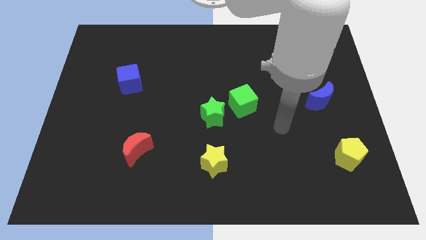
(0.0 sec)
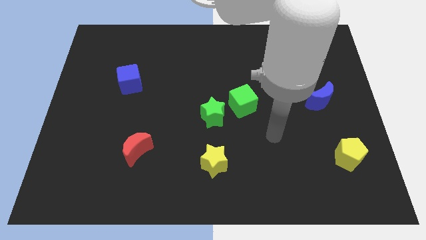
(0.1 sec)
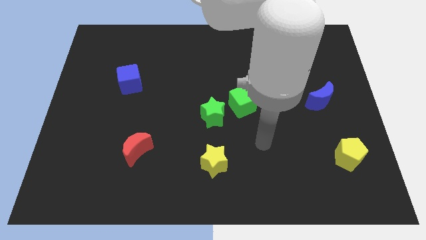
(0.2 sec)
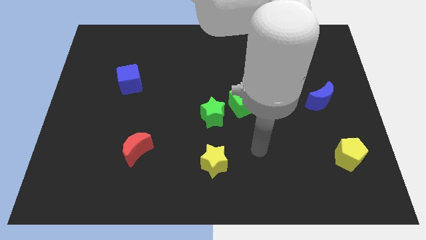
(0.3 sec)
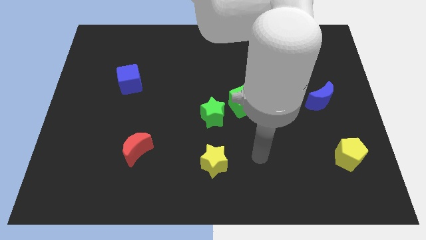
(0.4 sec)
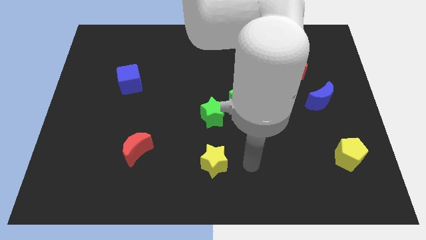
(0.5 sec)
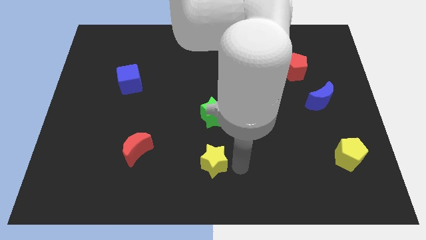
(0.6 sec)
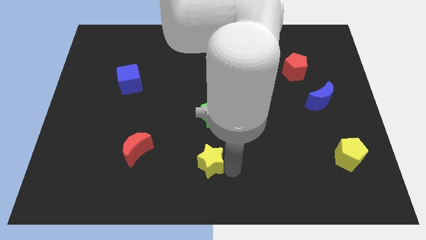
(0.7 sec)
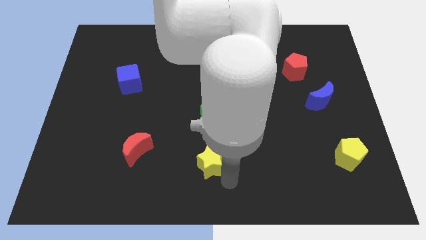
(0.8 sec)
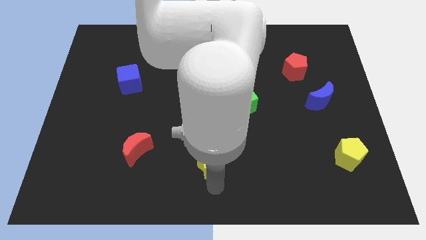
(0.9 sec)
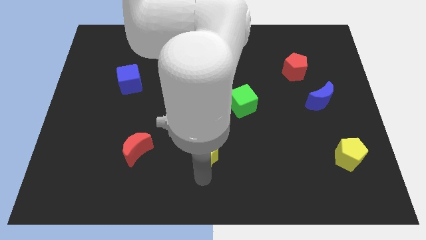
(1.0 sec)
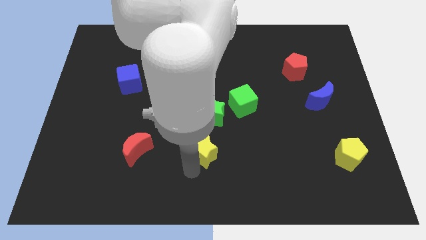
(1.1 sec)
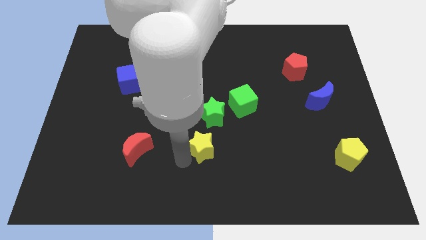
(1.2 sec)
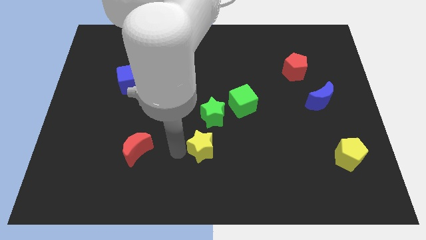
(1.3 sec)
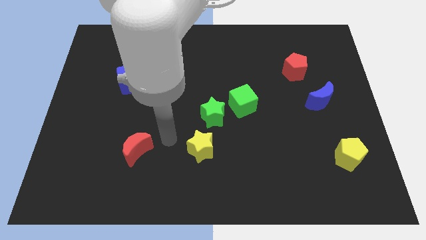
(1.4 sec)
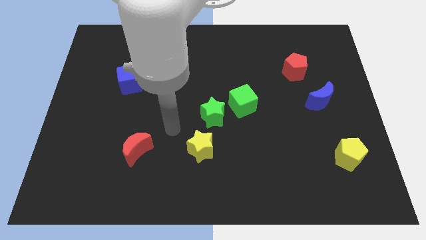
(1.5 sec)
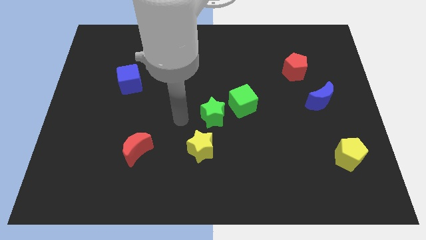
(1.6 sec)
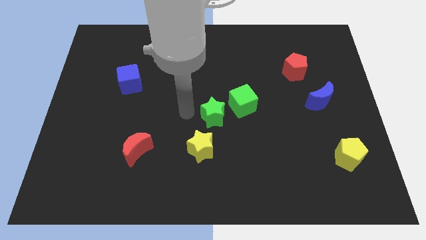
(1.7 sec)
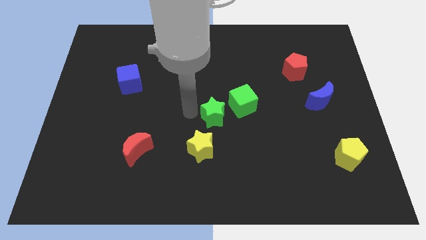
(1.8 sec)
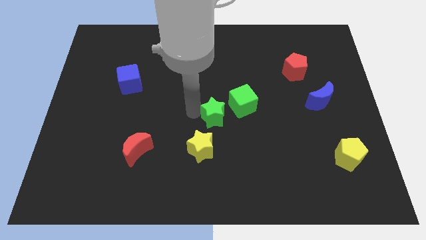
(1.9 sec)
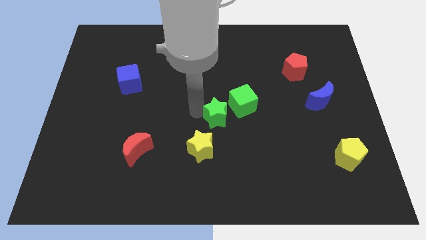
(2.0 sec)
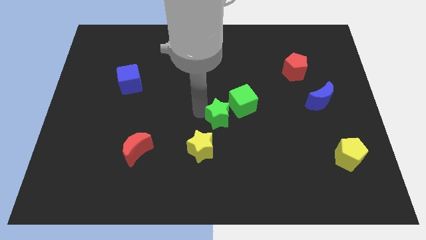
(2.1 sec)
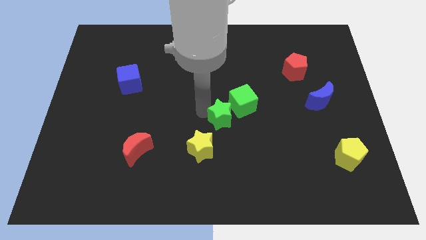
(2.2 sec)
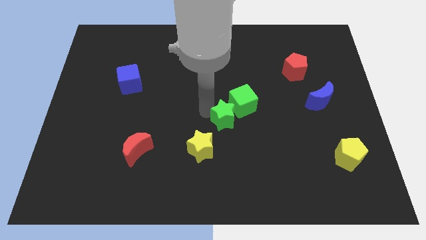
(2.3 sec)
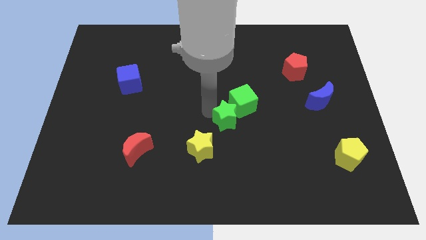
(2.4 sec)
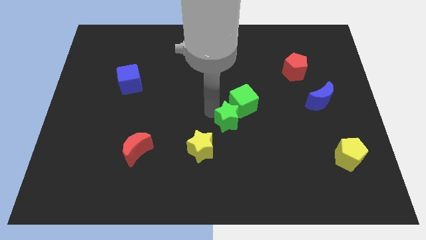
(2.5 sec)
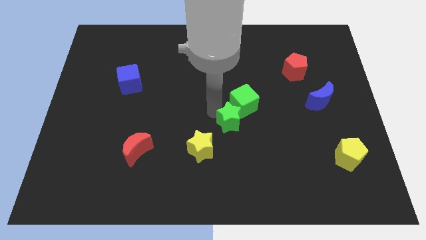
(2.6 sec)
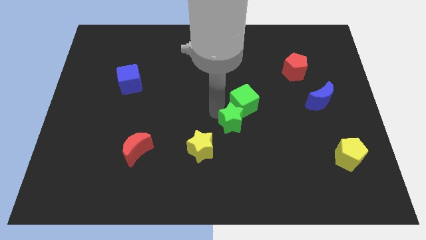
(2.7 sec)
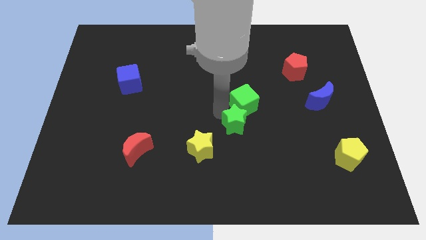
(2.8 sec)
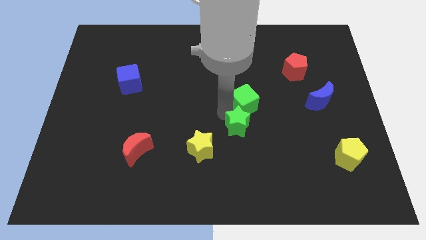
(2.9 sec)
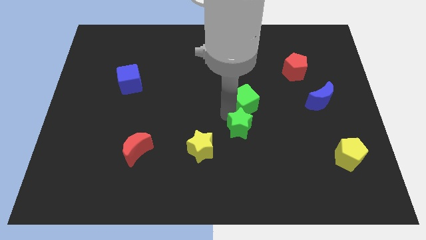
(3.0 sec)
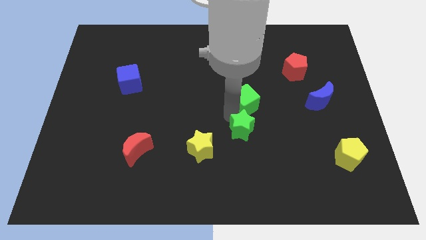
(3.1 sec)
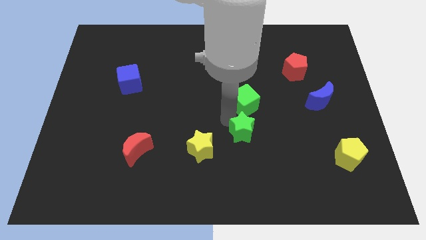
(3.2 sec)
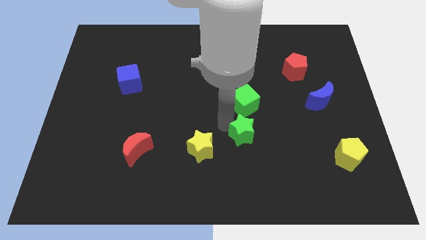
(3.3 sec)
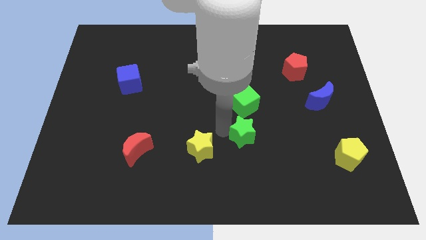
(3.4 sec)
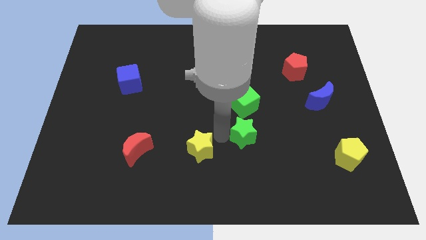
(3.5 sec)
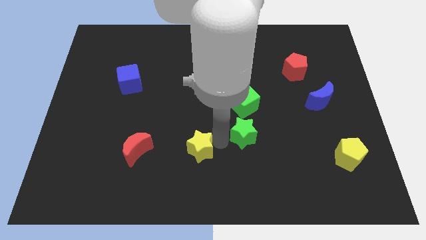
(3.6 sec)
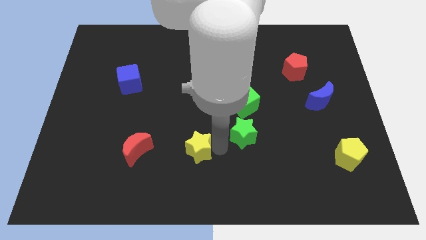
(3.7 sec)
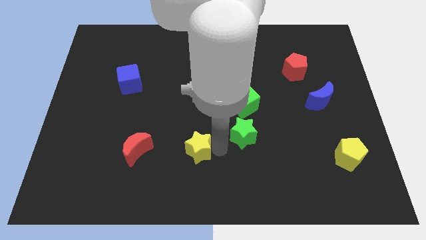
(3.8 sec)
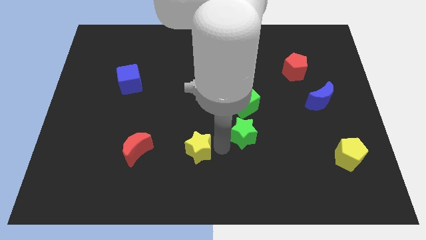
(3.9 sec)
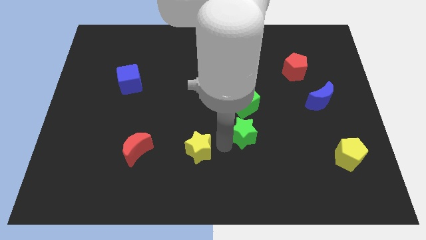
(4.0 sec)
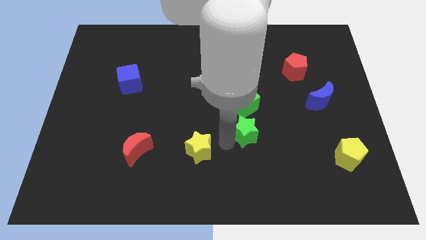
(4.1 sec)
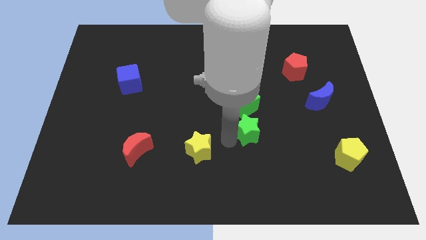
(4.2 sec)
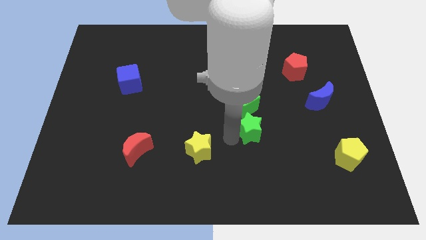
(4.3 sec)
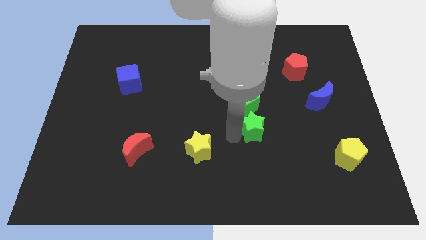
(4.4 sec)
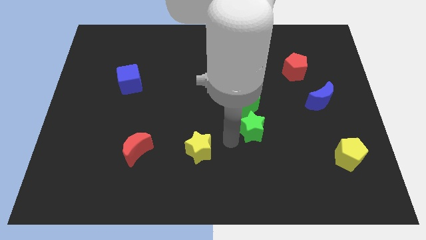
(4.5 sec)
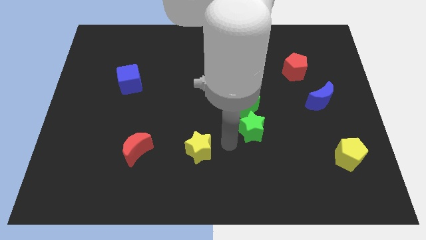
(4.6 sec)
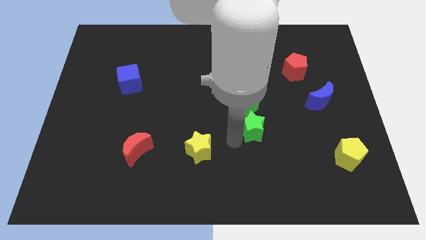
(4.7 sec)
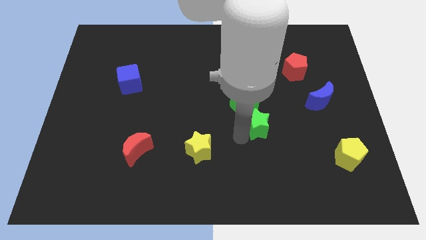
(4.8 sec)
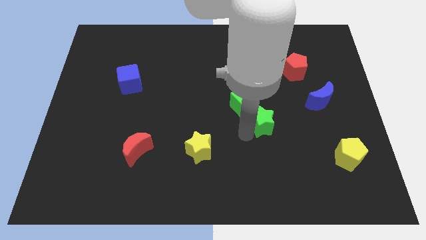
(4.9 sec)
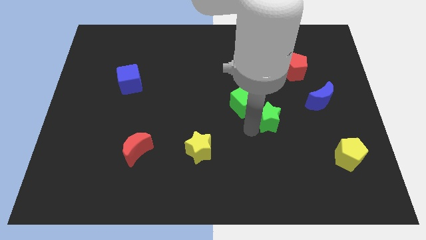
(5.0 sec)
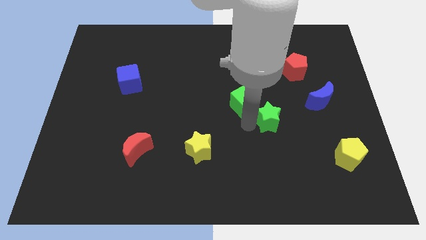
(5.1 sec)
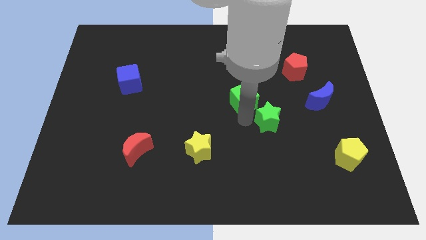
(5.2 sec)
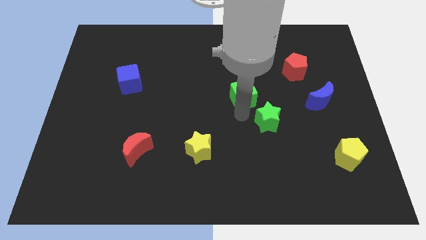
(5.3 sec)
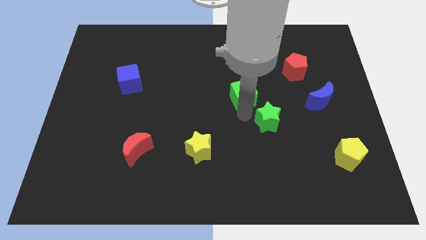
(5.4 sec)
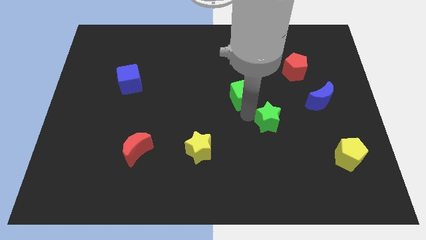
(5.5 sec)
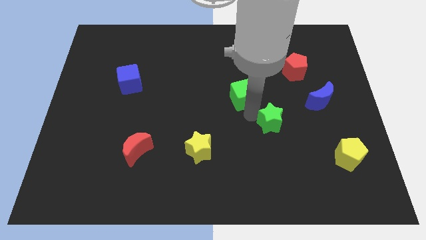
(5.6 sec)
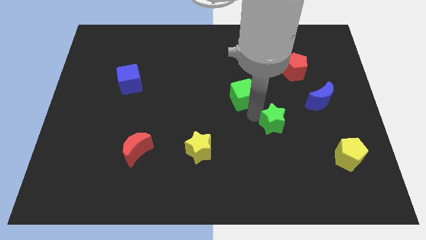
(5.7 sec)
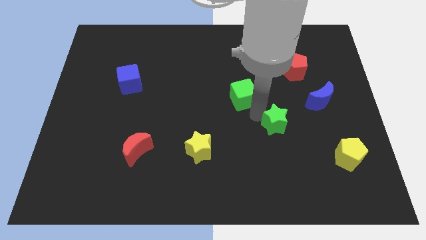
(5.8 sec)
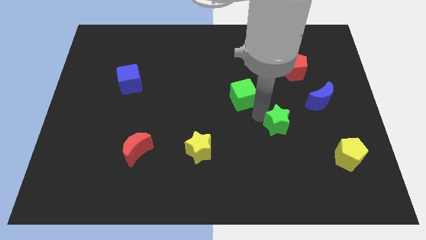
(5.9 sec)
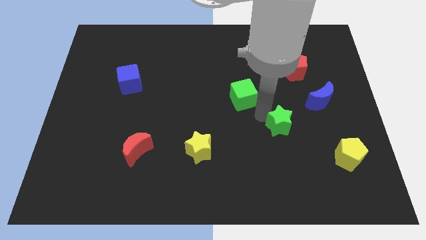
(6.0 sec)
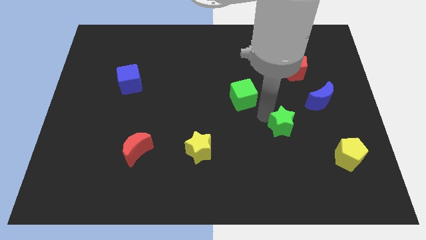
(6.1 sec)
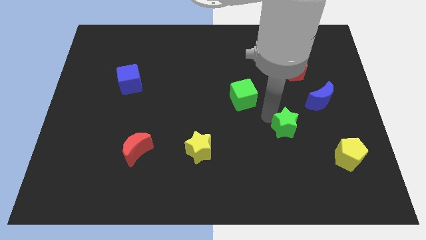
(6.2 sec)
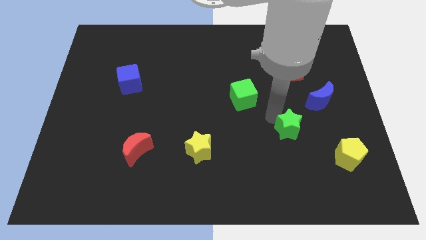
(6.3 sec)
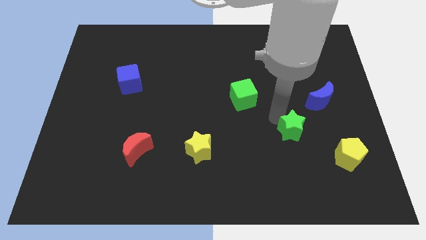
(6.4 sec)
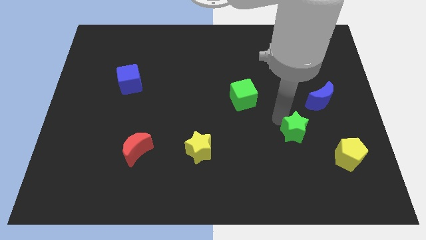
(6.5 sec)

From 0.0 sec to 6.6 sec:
push the green star diagonally up and to the left of the yellow pentagon
